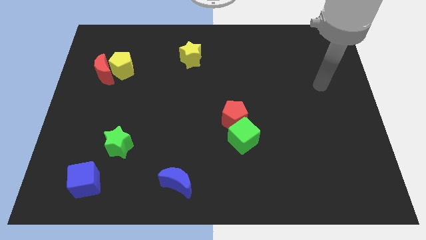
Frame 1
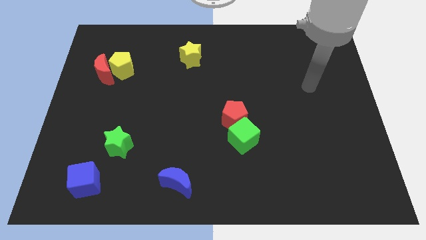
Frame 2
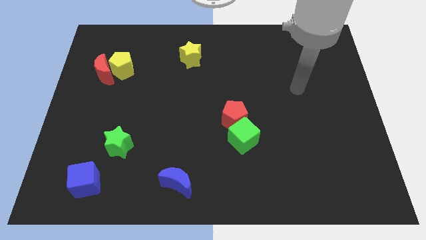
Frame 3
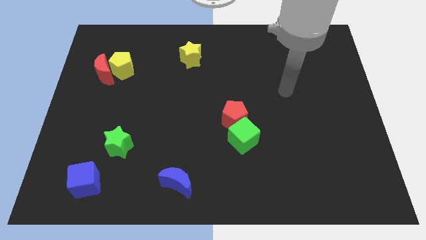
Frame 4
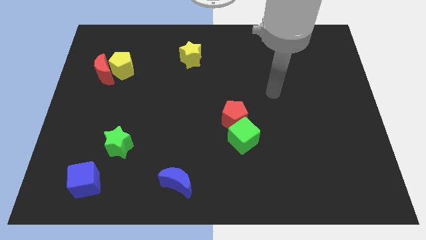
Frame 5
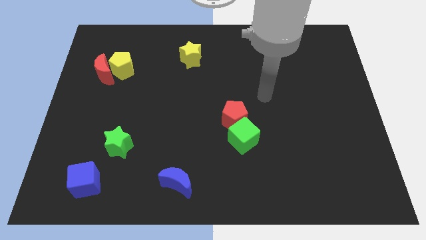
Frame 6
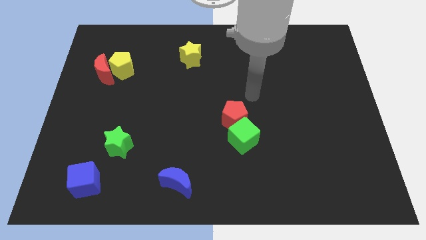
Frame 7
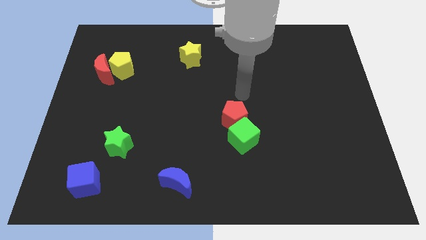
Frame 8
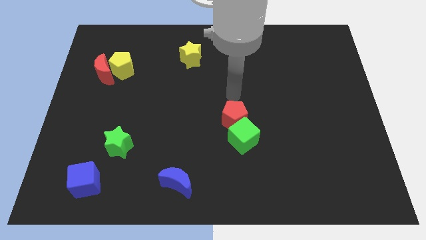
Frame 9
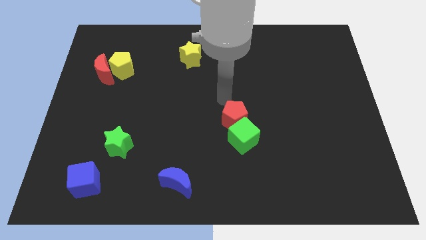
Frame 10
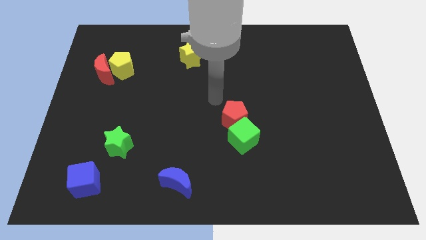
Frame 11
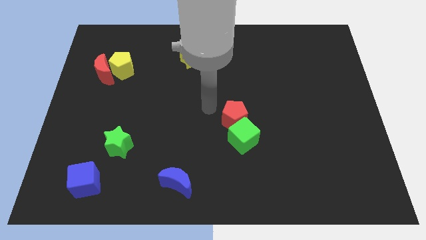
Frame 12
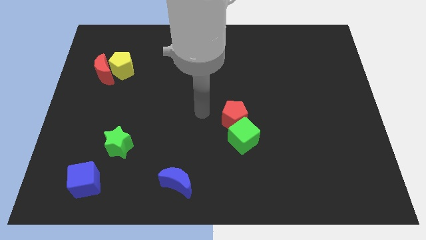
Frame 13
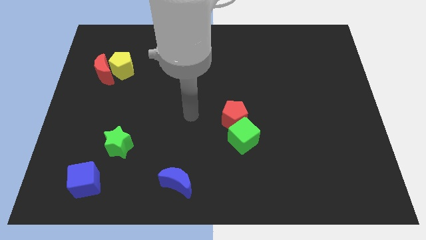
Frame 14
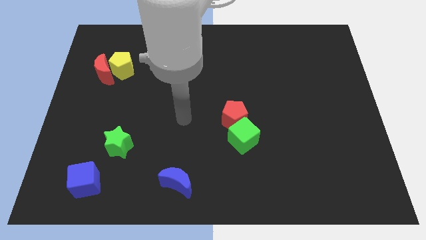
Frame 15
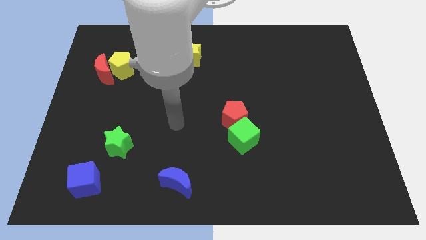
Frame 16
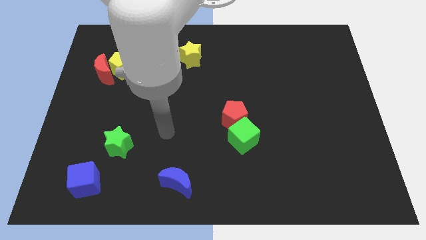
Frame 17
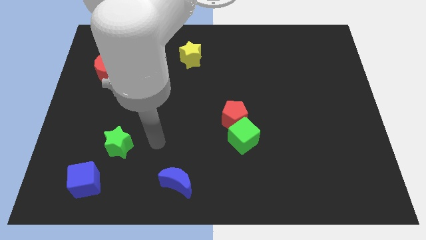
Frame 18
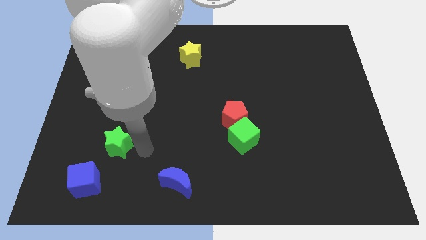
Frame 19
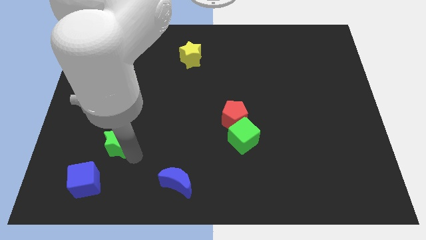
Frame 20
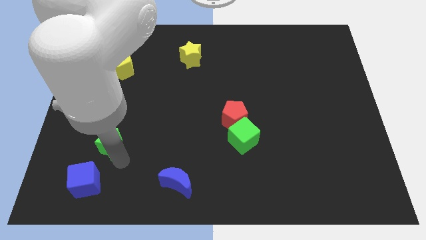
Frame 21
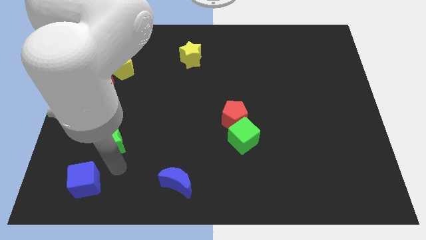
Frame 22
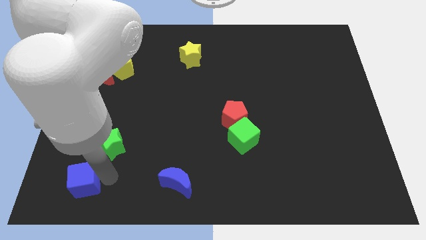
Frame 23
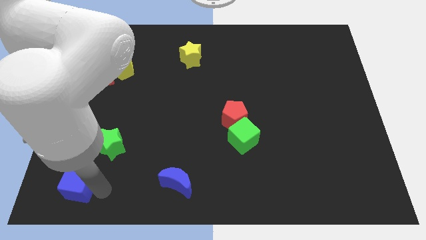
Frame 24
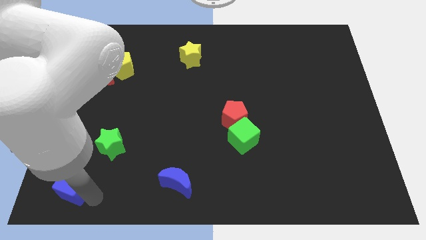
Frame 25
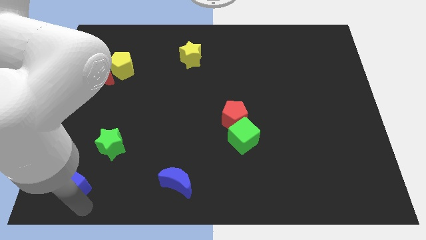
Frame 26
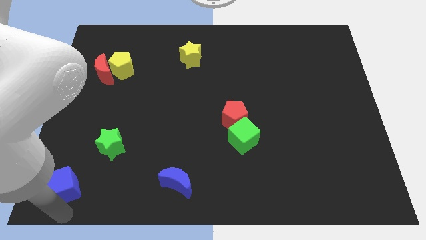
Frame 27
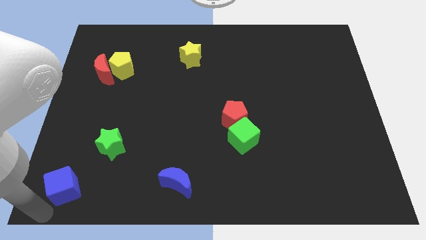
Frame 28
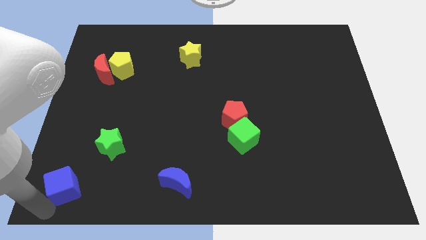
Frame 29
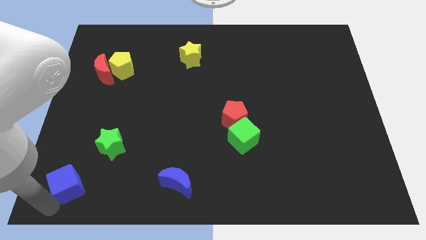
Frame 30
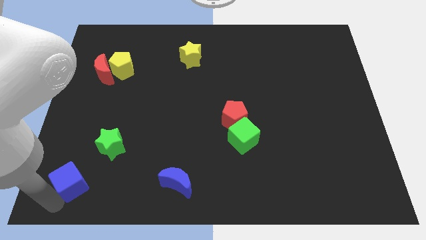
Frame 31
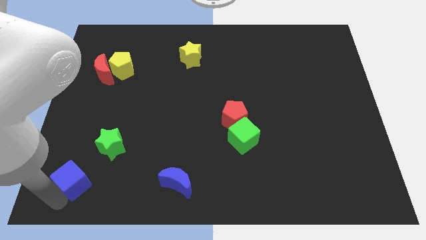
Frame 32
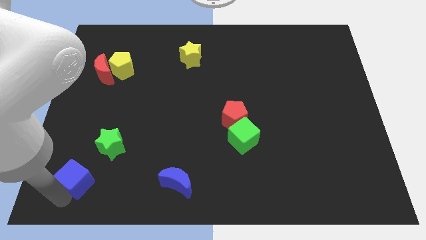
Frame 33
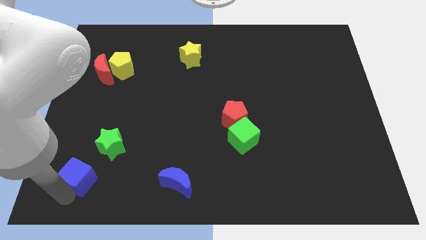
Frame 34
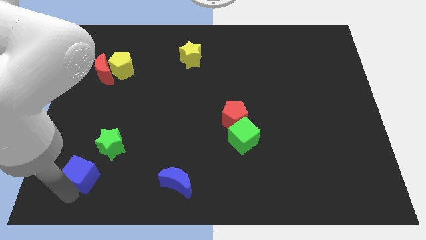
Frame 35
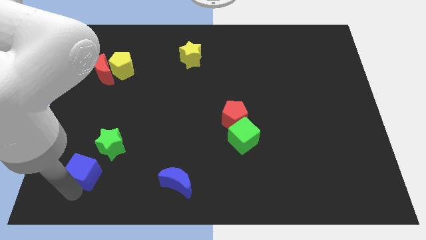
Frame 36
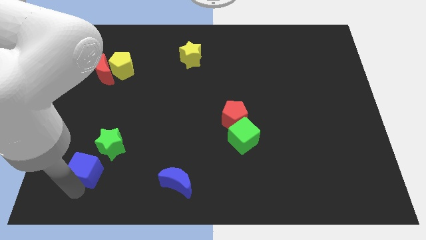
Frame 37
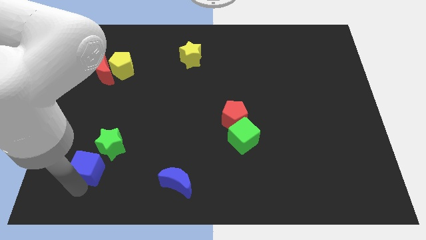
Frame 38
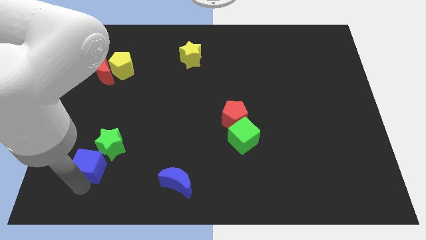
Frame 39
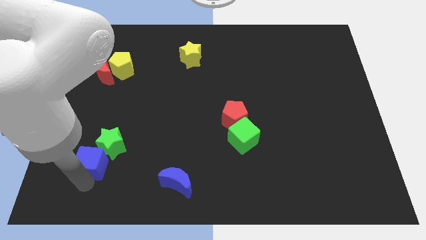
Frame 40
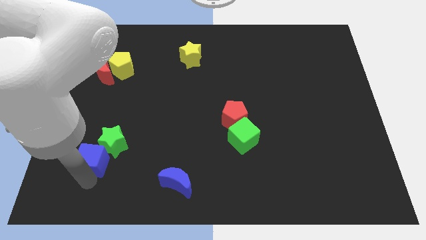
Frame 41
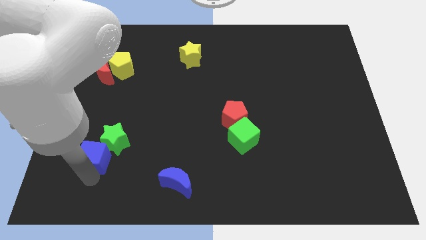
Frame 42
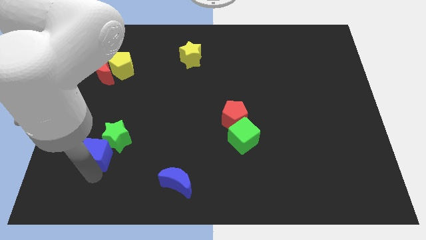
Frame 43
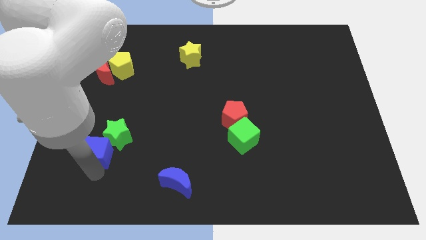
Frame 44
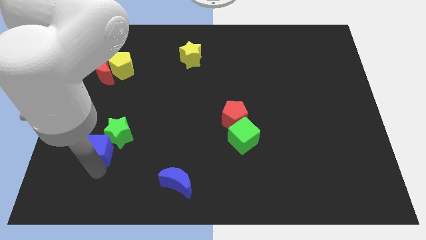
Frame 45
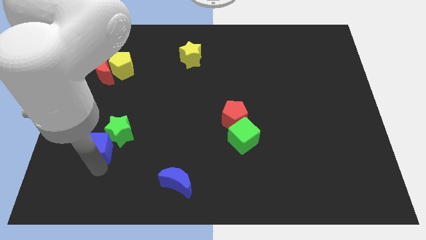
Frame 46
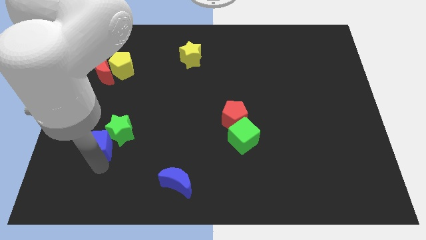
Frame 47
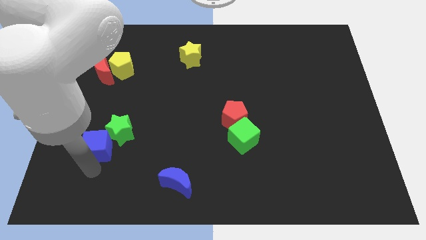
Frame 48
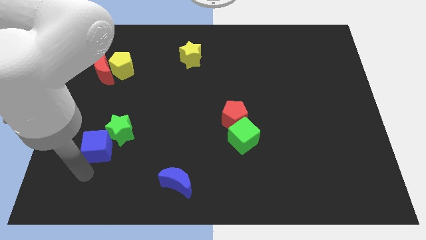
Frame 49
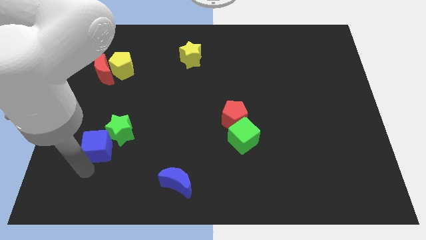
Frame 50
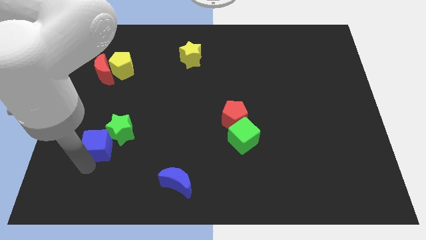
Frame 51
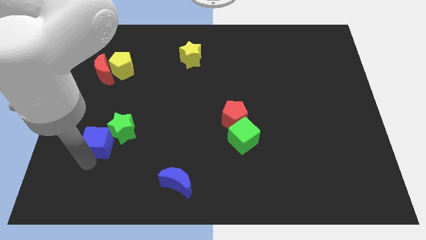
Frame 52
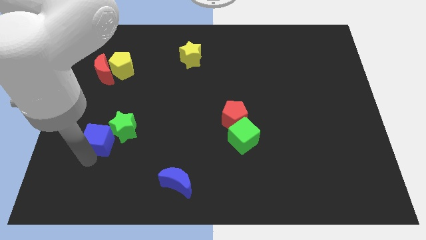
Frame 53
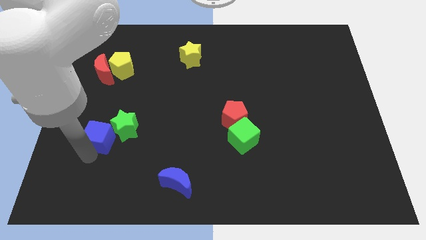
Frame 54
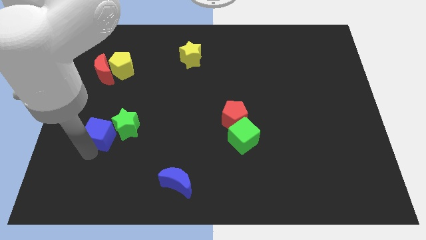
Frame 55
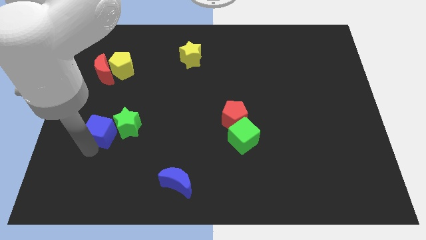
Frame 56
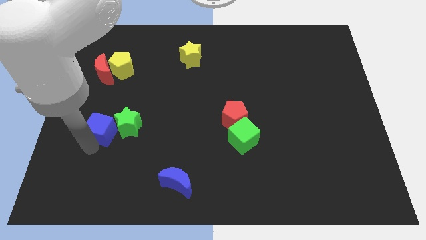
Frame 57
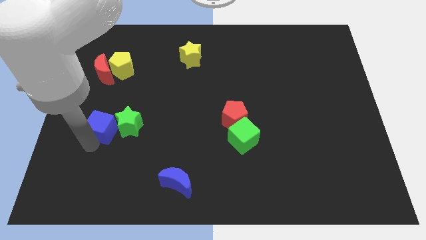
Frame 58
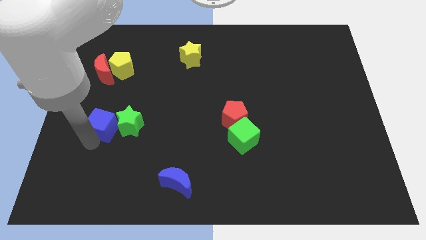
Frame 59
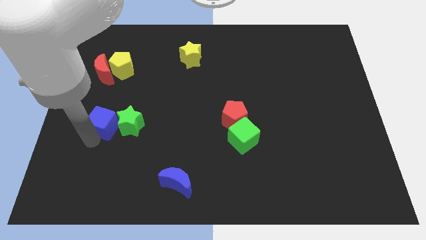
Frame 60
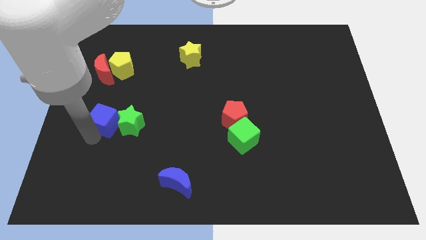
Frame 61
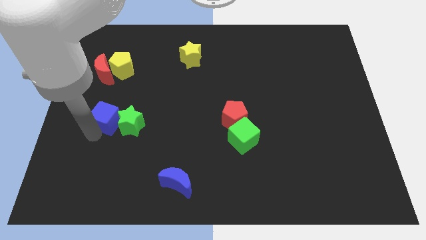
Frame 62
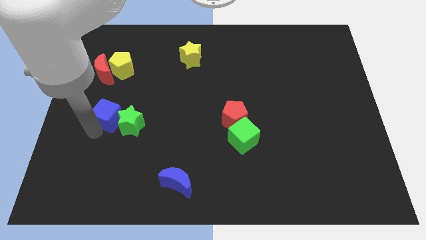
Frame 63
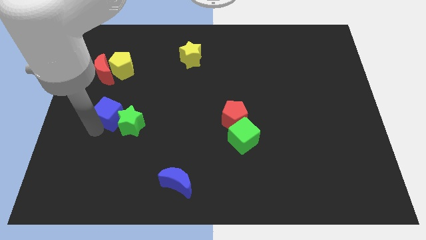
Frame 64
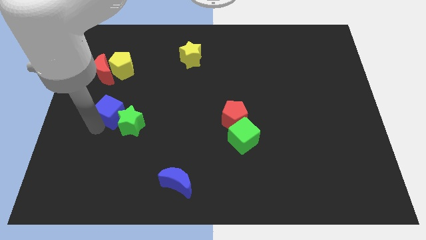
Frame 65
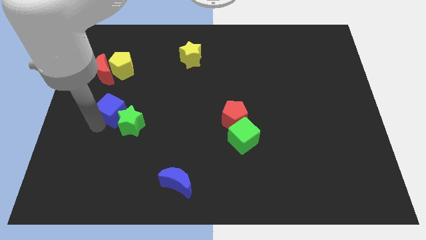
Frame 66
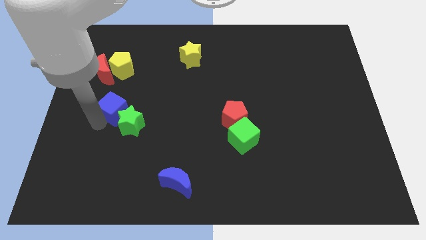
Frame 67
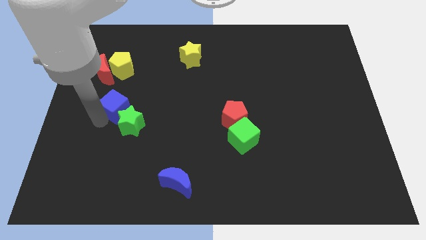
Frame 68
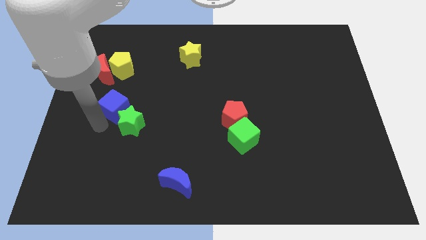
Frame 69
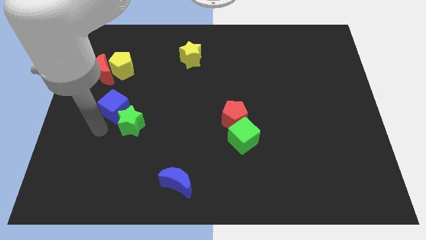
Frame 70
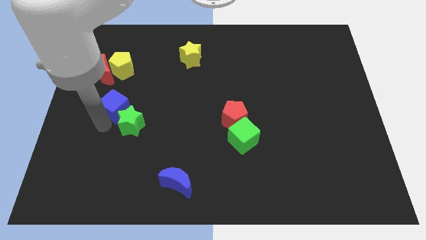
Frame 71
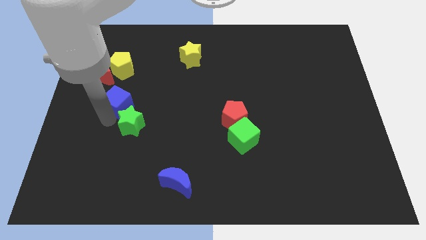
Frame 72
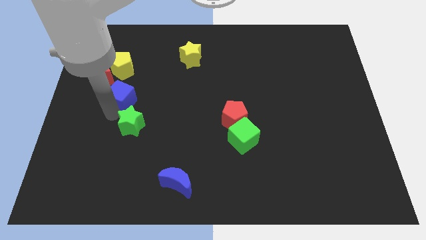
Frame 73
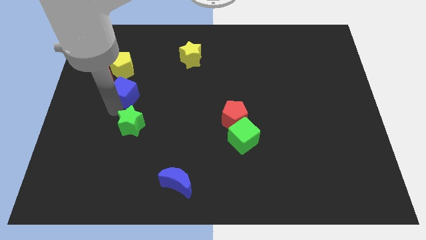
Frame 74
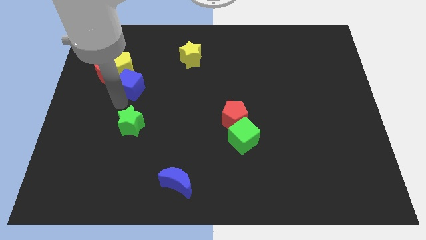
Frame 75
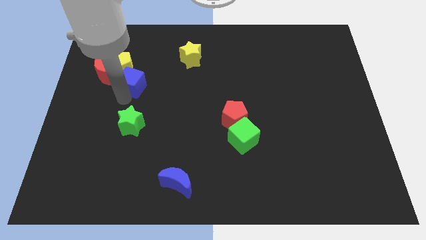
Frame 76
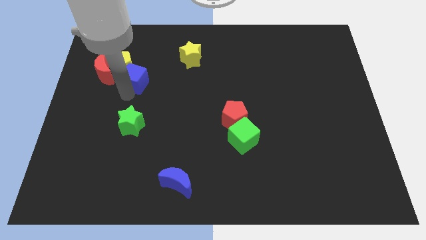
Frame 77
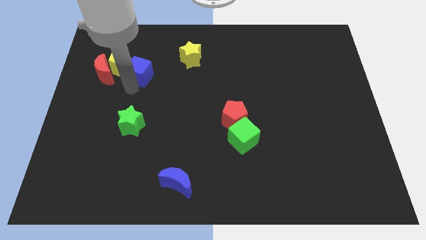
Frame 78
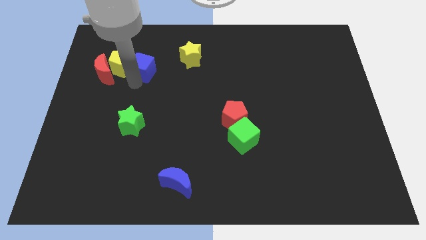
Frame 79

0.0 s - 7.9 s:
push the blue cube just left of the yellow star
